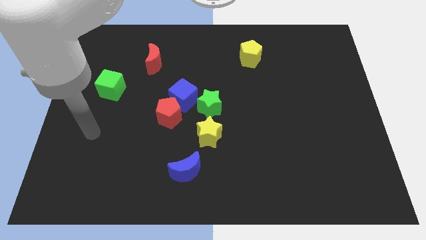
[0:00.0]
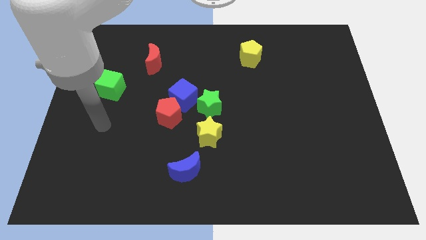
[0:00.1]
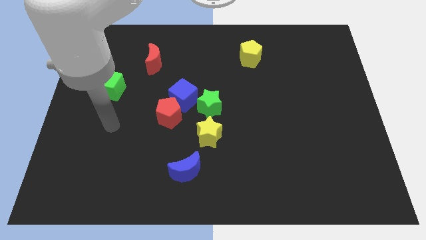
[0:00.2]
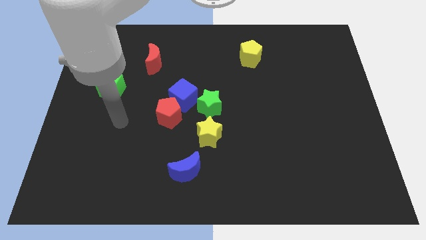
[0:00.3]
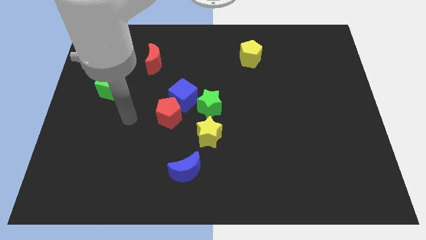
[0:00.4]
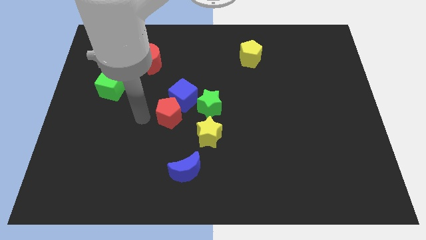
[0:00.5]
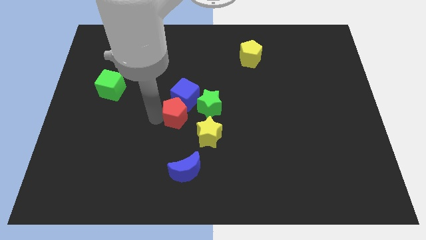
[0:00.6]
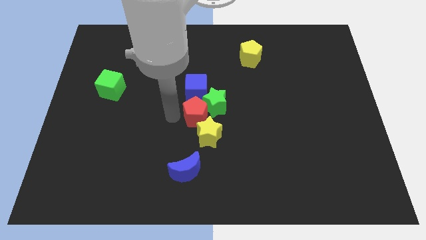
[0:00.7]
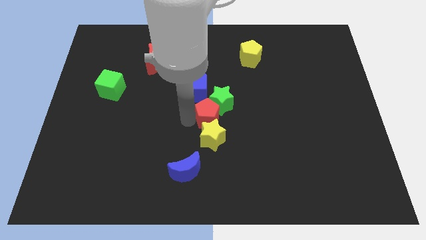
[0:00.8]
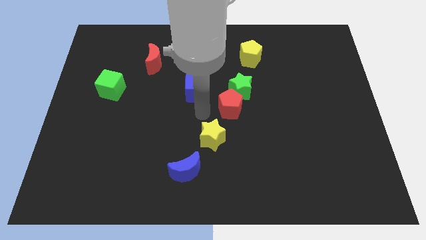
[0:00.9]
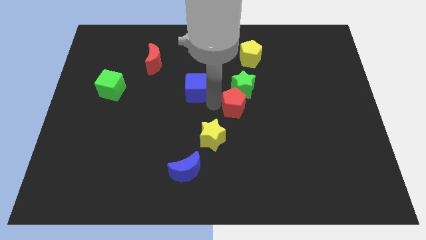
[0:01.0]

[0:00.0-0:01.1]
move the blue cube away from the red pentagon and green star

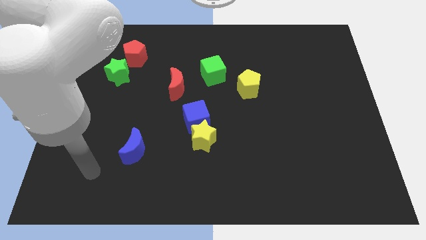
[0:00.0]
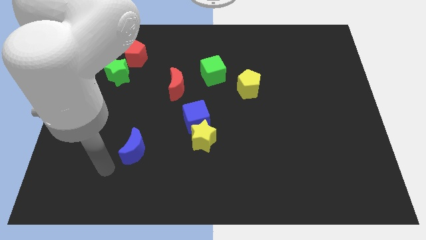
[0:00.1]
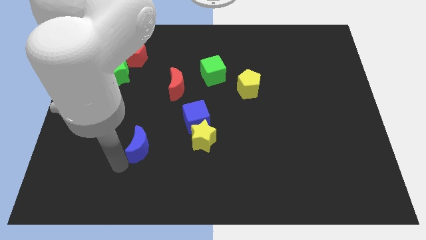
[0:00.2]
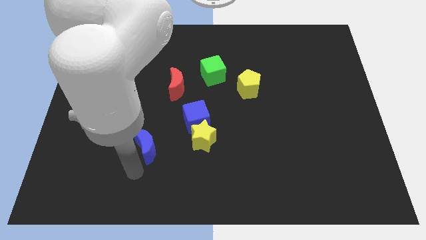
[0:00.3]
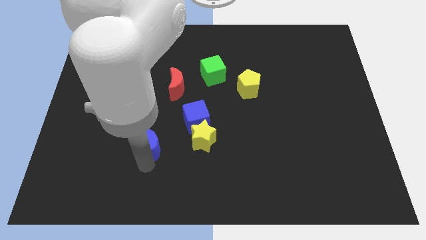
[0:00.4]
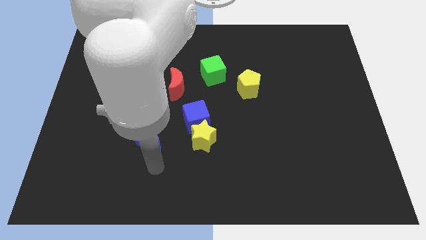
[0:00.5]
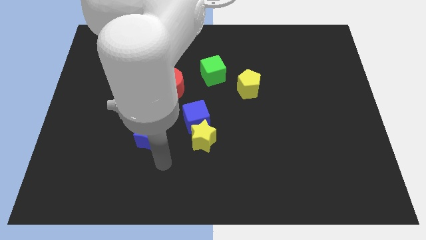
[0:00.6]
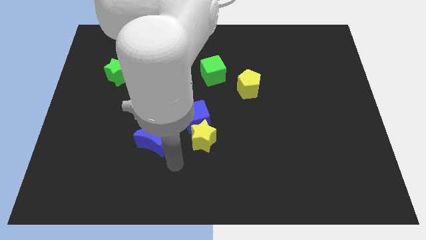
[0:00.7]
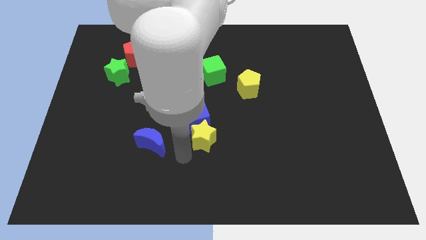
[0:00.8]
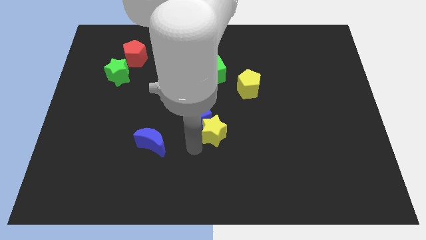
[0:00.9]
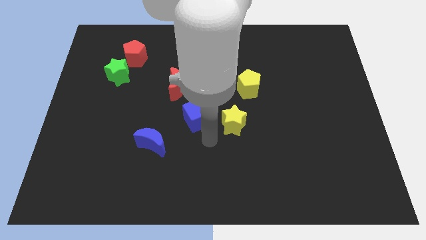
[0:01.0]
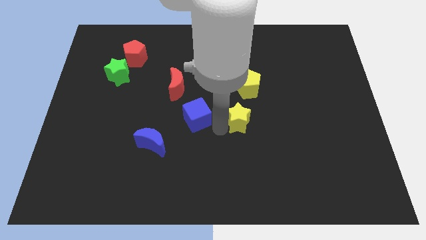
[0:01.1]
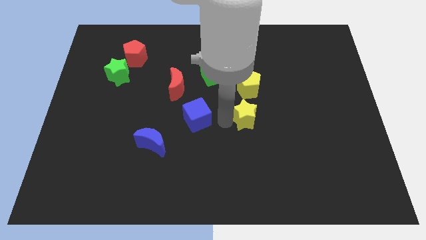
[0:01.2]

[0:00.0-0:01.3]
separate the blue cube from the yellow star

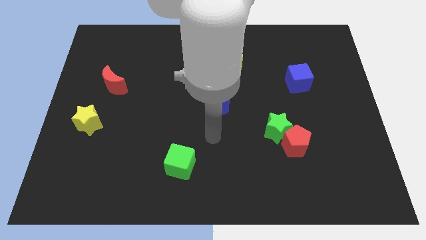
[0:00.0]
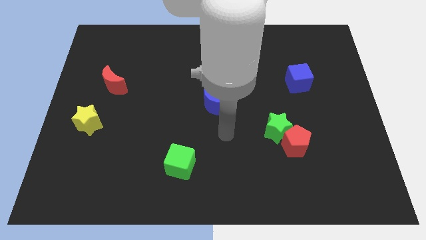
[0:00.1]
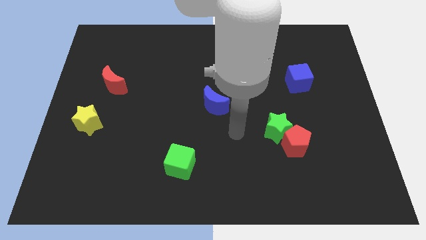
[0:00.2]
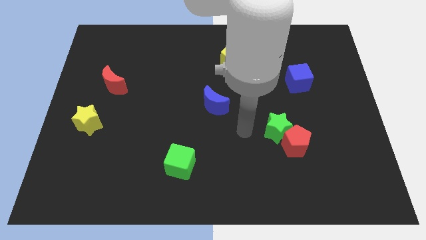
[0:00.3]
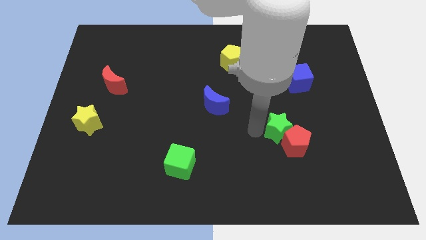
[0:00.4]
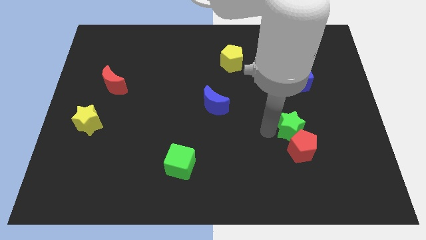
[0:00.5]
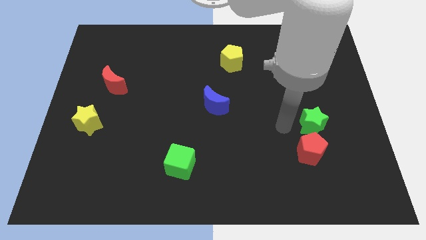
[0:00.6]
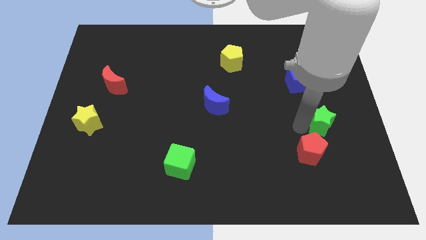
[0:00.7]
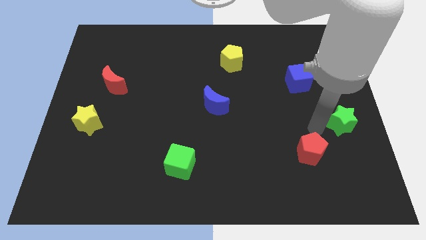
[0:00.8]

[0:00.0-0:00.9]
separate the red pentagon from the green star

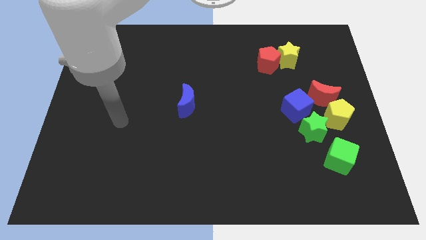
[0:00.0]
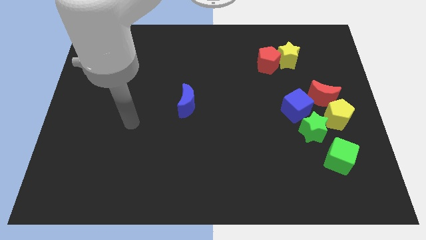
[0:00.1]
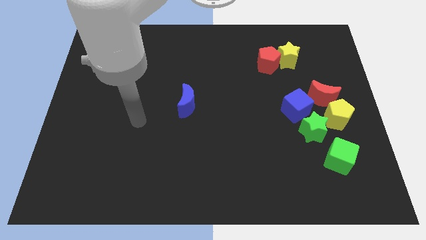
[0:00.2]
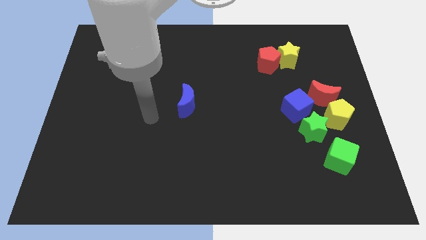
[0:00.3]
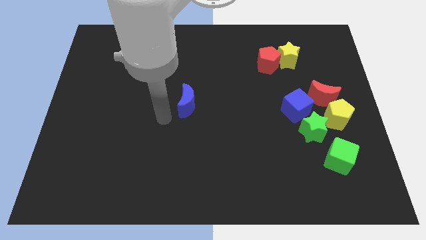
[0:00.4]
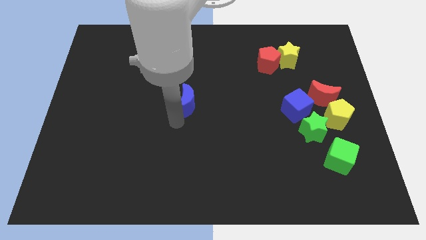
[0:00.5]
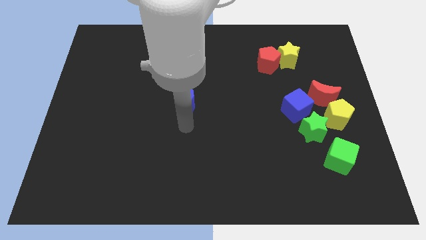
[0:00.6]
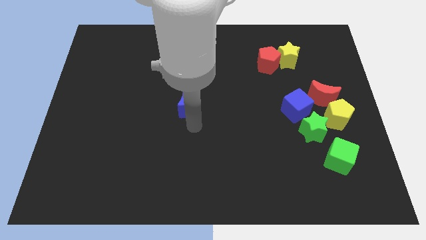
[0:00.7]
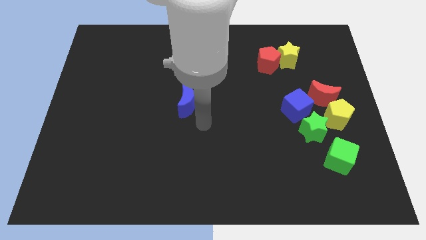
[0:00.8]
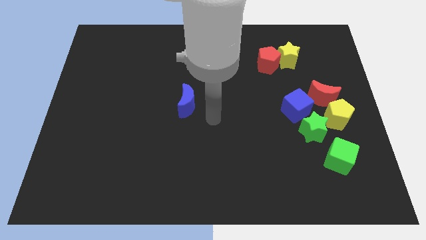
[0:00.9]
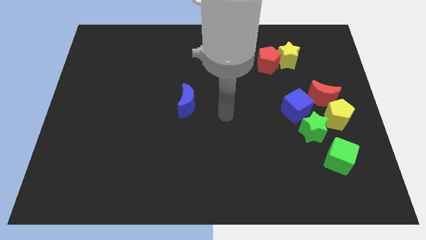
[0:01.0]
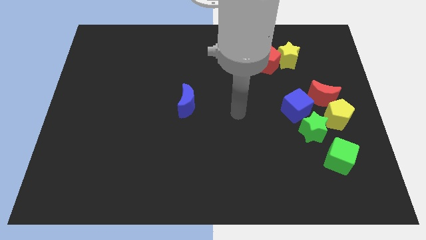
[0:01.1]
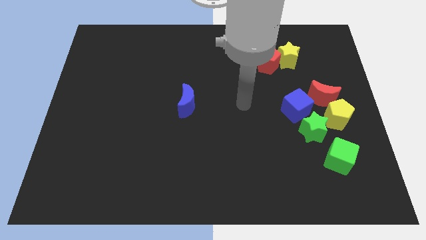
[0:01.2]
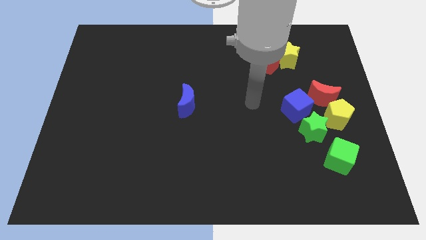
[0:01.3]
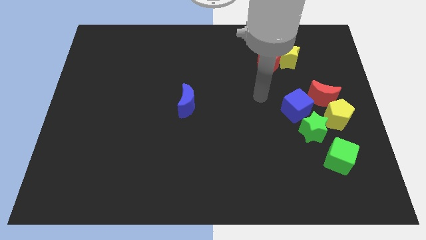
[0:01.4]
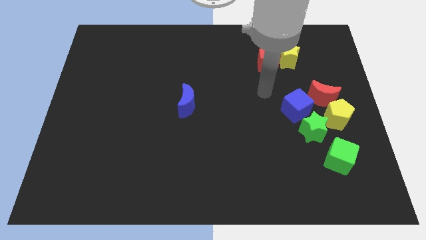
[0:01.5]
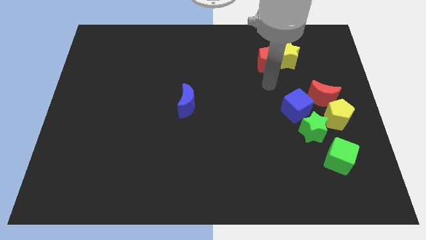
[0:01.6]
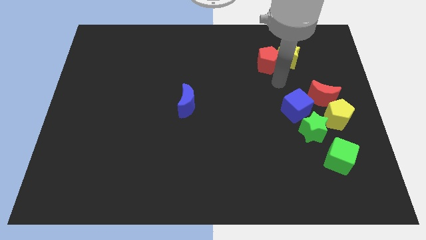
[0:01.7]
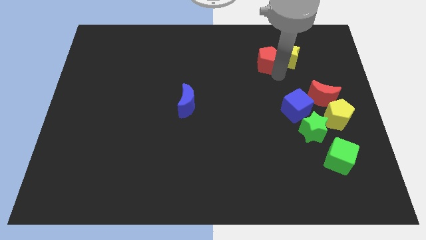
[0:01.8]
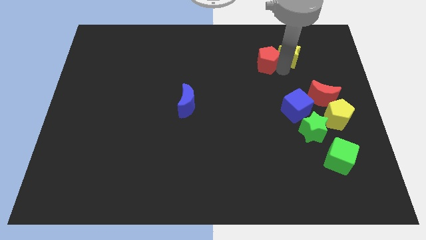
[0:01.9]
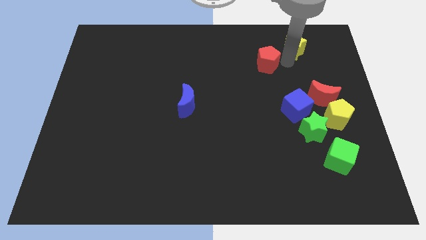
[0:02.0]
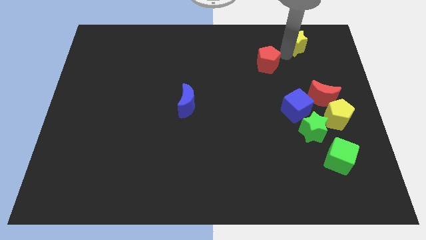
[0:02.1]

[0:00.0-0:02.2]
pull the red pentagon apart from the yellow star

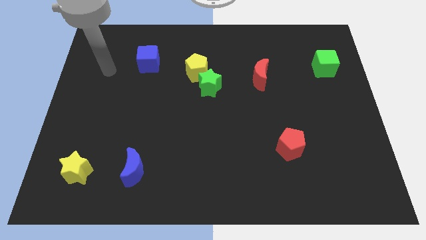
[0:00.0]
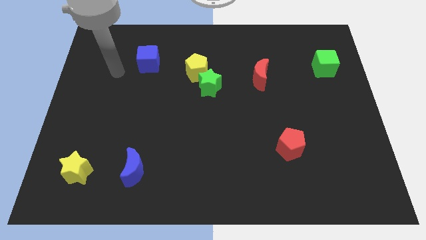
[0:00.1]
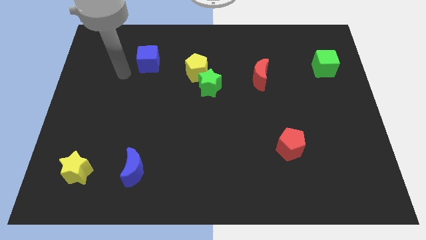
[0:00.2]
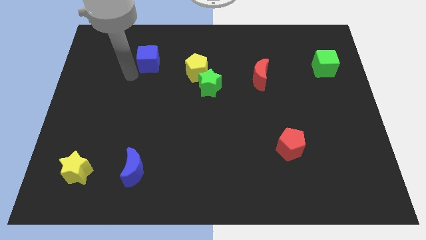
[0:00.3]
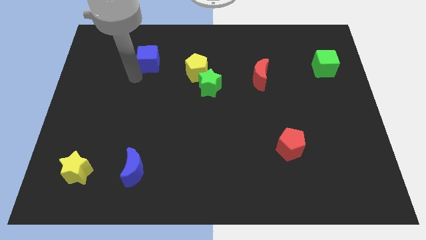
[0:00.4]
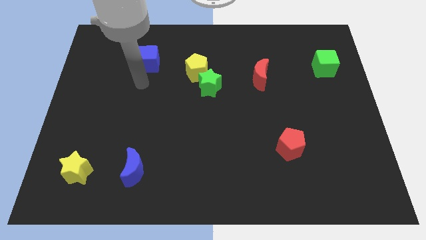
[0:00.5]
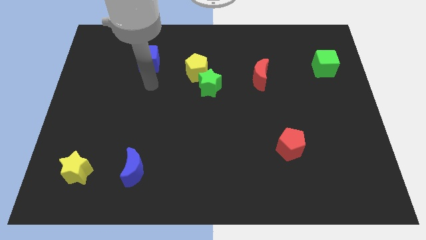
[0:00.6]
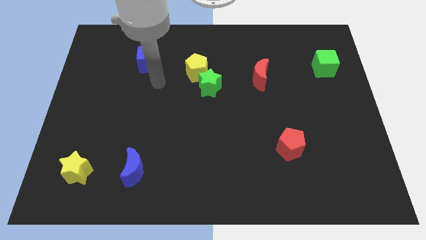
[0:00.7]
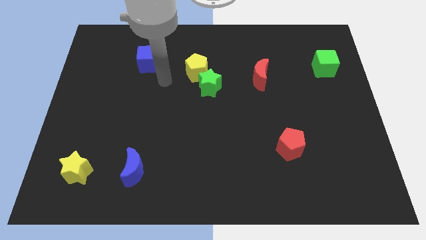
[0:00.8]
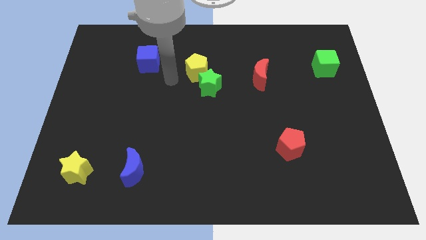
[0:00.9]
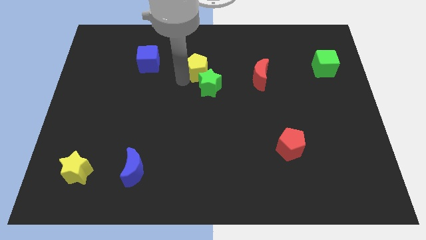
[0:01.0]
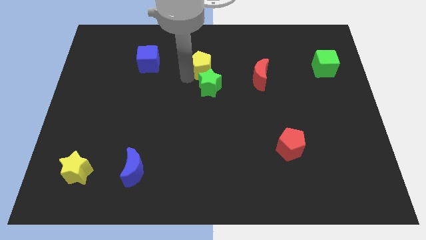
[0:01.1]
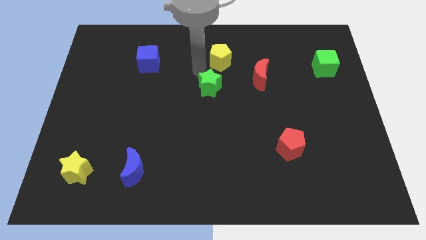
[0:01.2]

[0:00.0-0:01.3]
pull the green star apart from the yellow pentagon

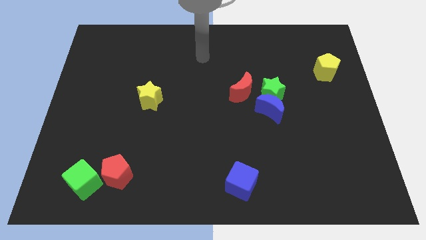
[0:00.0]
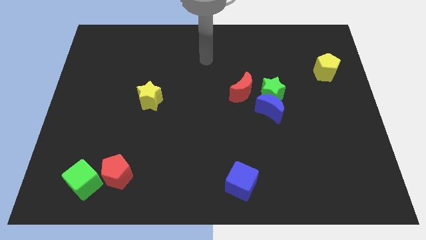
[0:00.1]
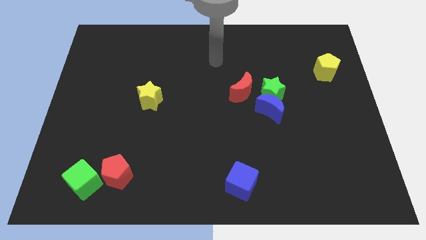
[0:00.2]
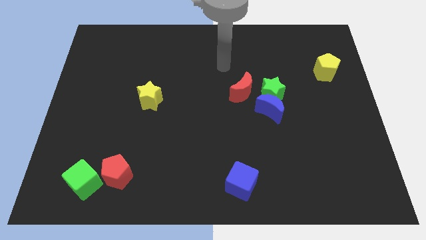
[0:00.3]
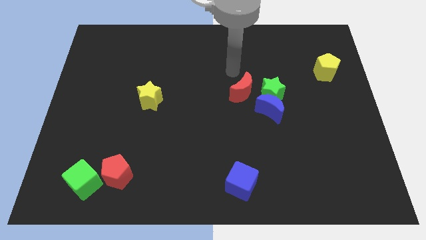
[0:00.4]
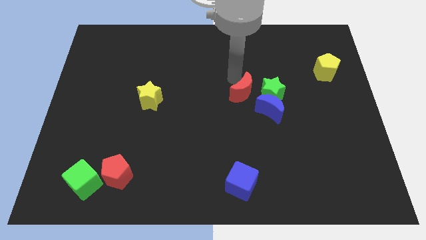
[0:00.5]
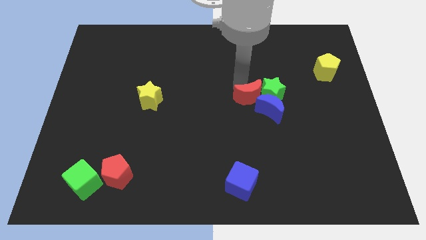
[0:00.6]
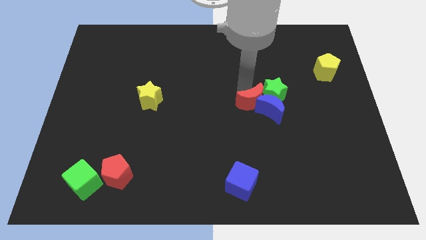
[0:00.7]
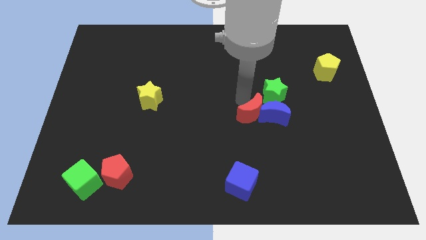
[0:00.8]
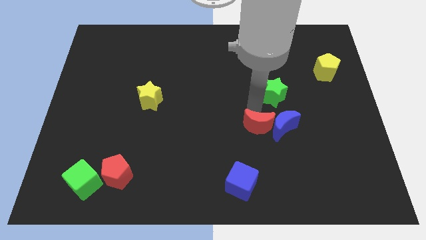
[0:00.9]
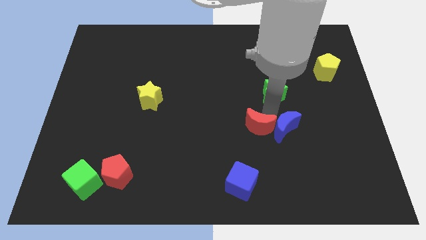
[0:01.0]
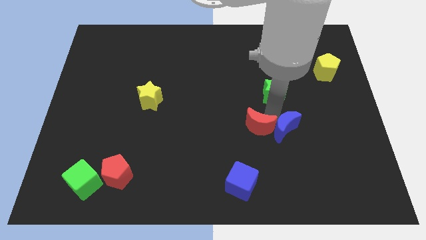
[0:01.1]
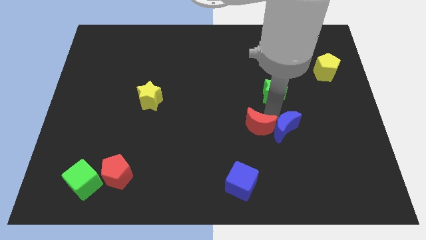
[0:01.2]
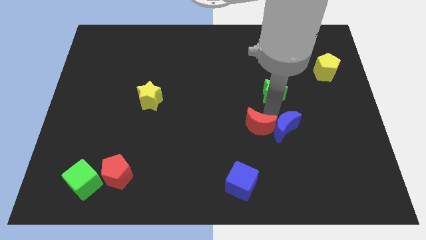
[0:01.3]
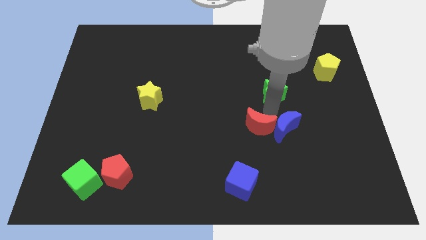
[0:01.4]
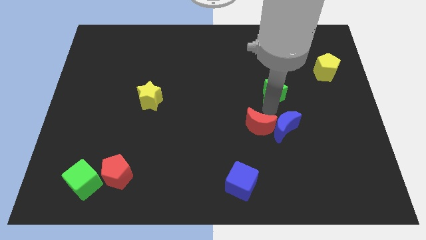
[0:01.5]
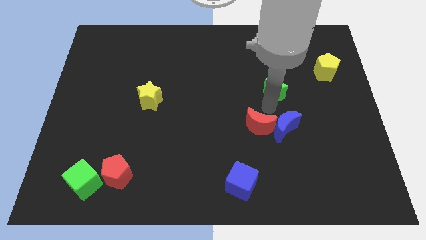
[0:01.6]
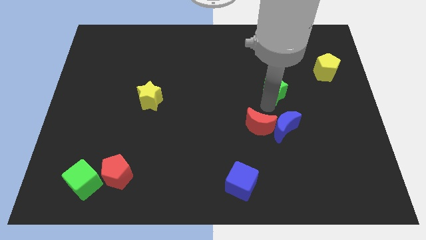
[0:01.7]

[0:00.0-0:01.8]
separate the green star from the blue moon and red moon

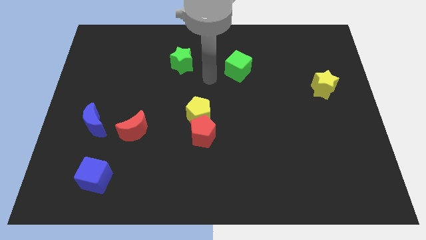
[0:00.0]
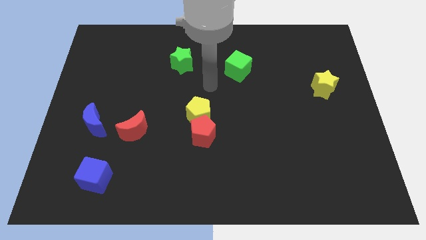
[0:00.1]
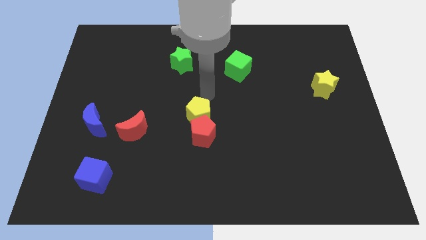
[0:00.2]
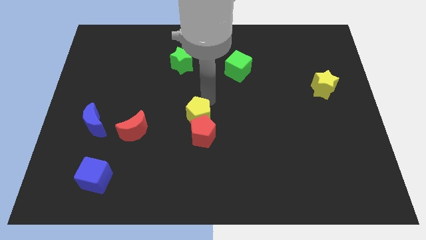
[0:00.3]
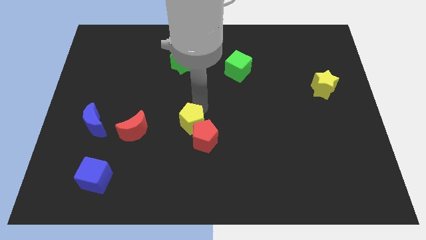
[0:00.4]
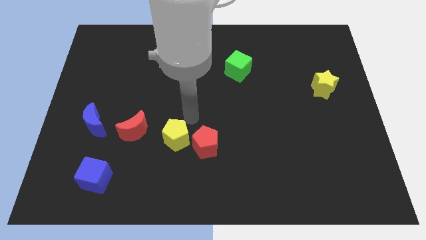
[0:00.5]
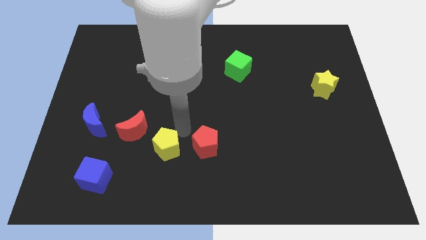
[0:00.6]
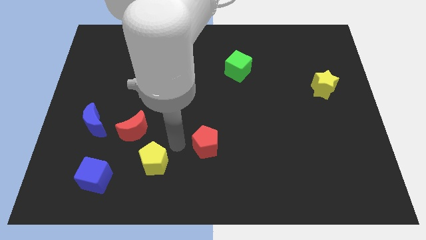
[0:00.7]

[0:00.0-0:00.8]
separate the red pentagon from the yellow pentagon
